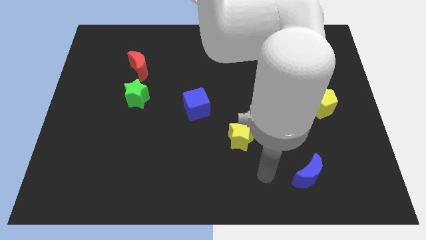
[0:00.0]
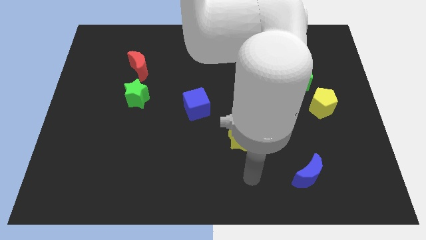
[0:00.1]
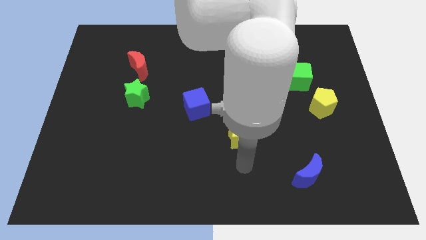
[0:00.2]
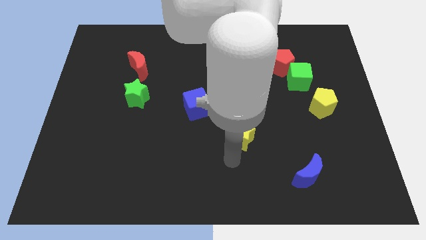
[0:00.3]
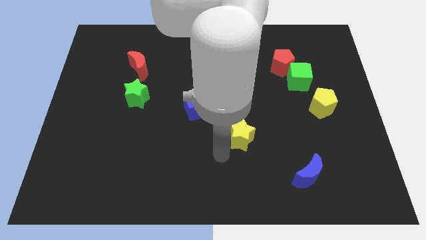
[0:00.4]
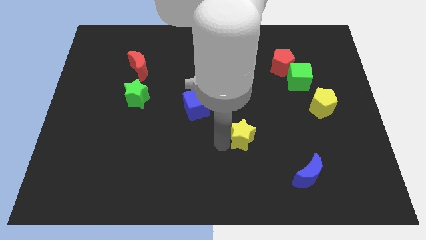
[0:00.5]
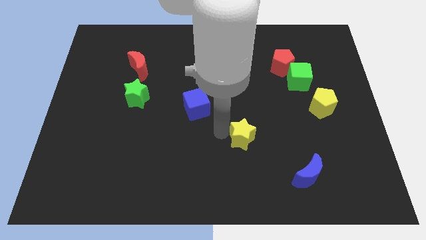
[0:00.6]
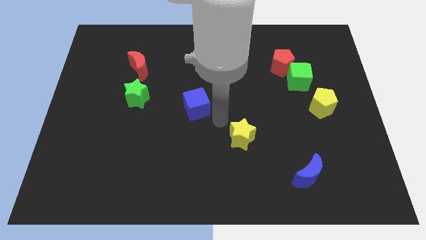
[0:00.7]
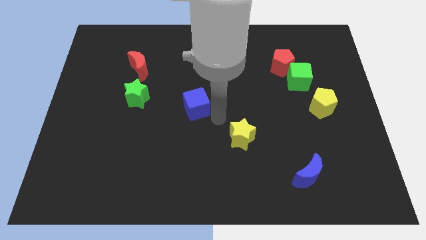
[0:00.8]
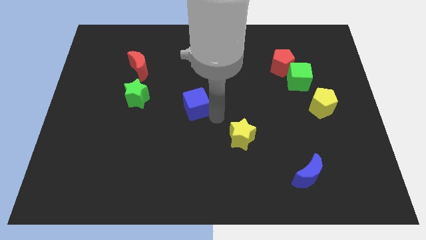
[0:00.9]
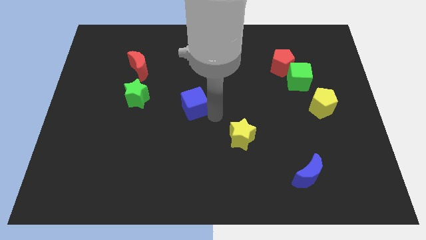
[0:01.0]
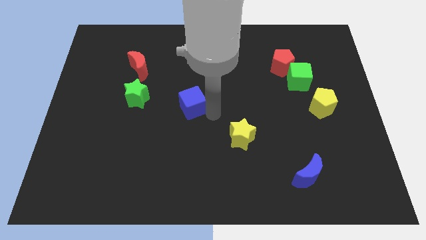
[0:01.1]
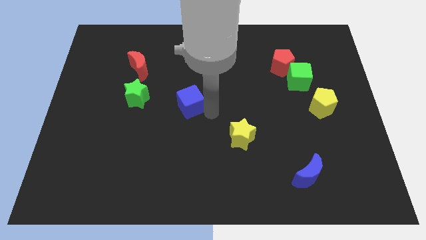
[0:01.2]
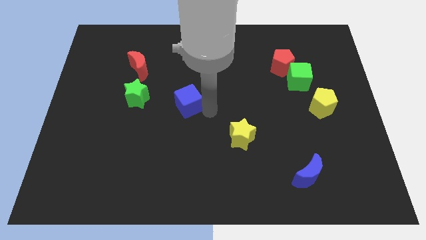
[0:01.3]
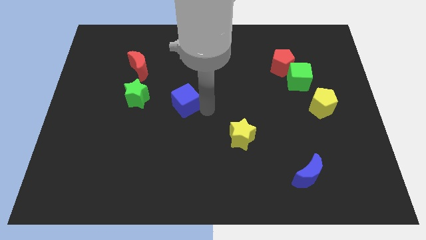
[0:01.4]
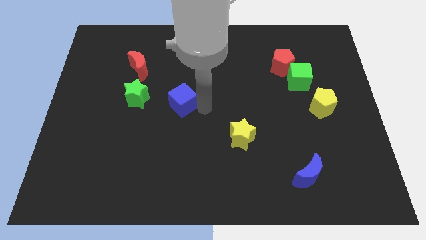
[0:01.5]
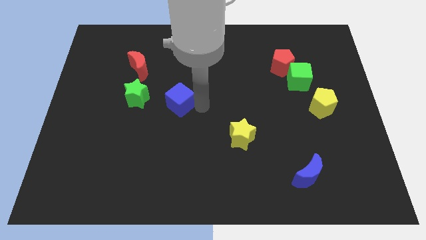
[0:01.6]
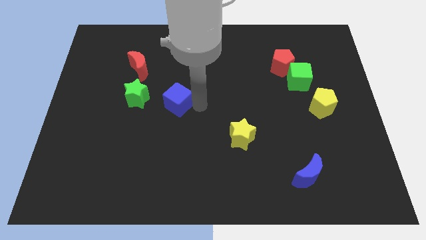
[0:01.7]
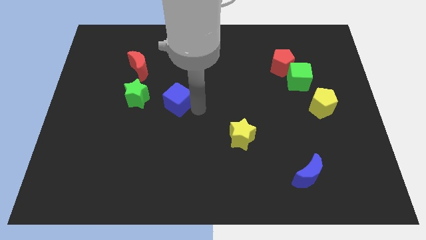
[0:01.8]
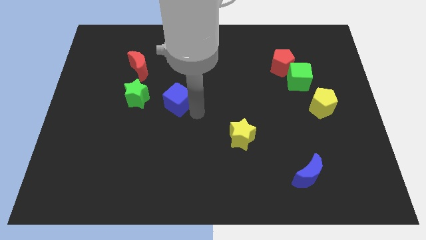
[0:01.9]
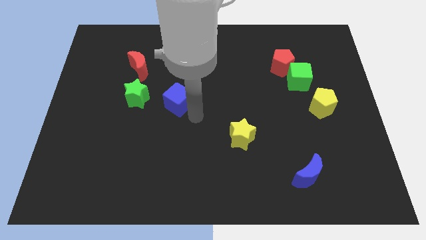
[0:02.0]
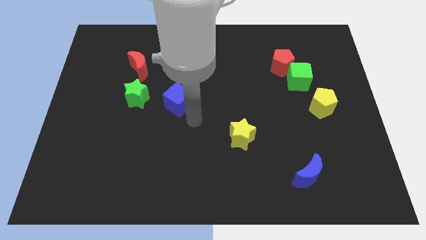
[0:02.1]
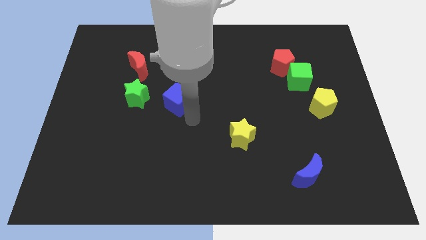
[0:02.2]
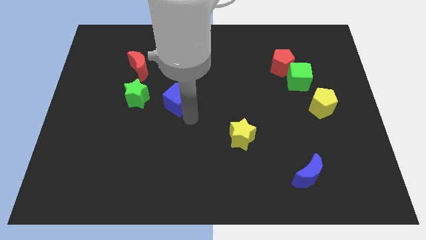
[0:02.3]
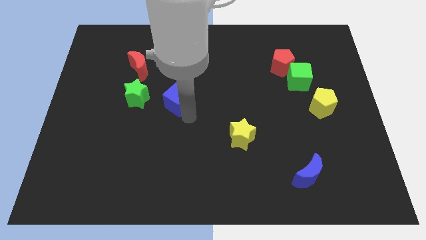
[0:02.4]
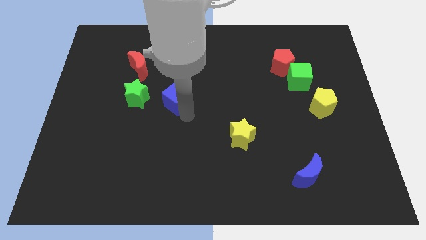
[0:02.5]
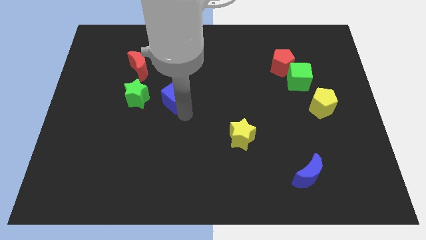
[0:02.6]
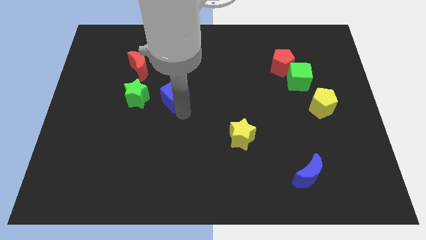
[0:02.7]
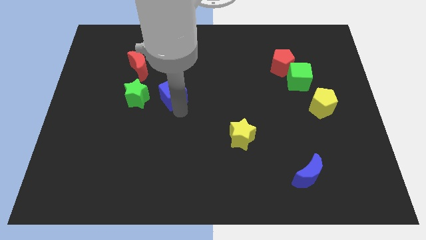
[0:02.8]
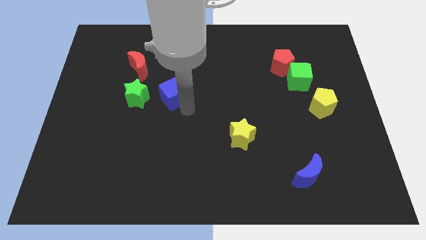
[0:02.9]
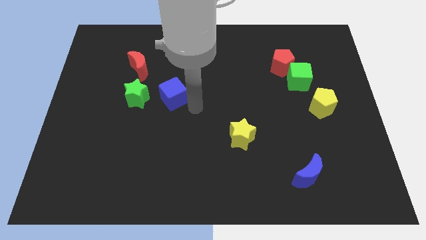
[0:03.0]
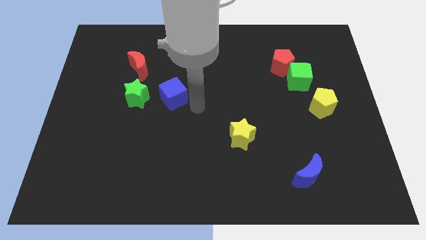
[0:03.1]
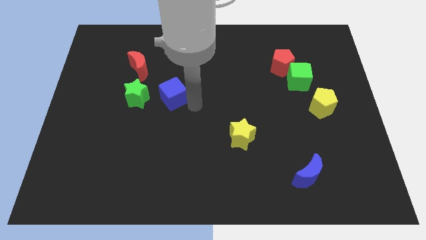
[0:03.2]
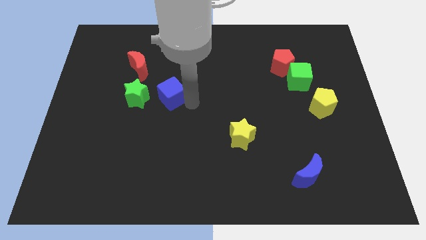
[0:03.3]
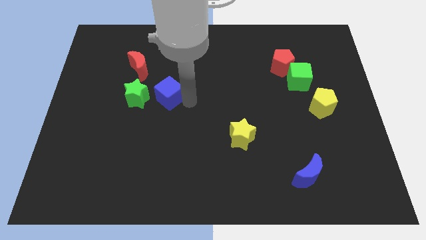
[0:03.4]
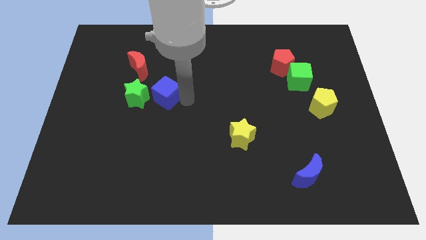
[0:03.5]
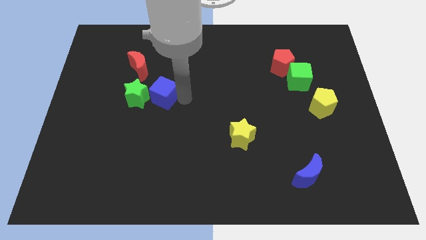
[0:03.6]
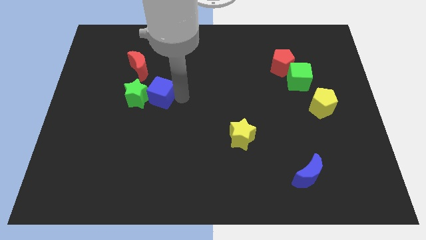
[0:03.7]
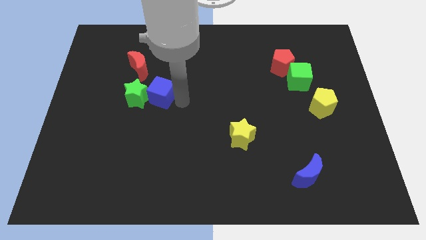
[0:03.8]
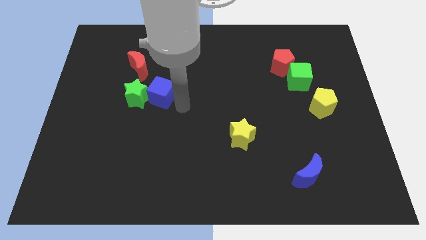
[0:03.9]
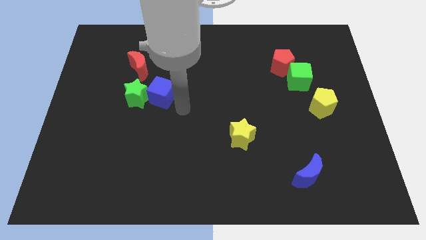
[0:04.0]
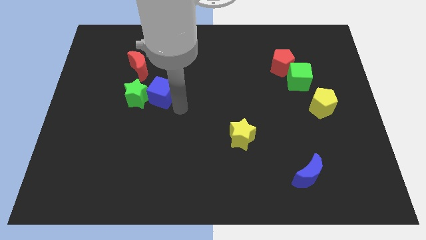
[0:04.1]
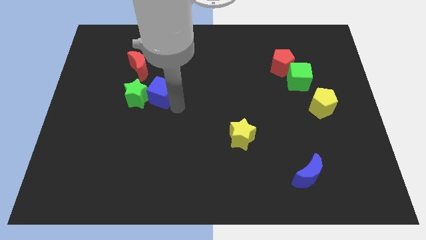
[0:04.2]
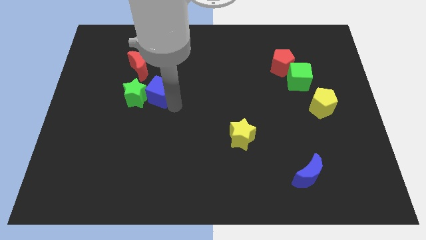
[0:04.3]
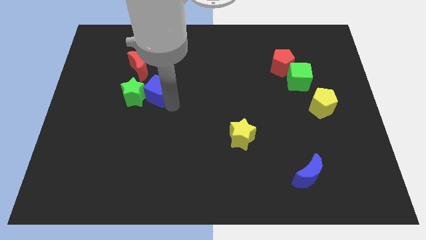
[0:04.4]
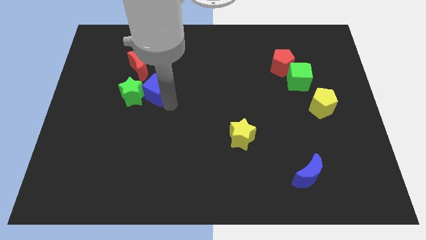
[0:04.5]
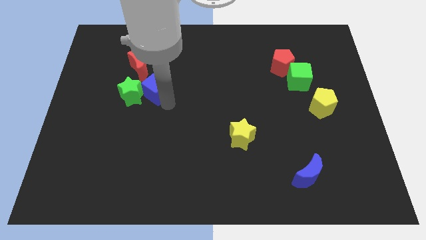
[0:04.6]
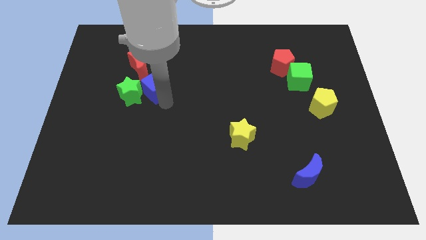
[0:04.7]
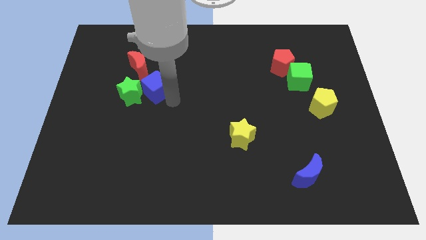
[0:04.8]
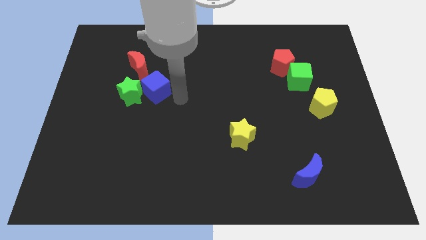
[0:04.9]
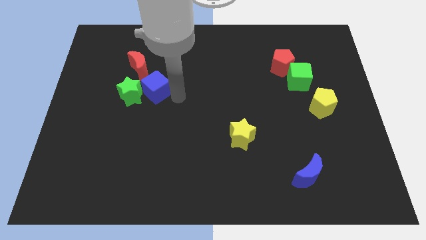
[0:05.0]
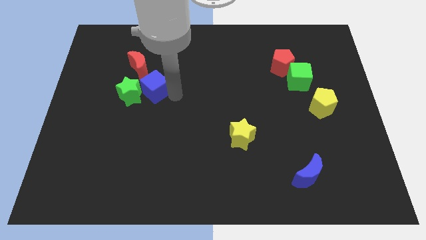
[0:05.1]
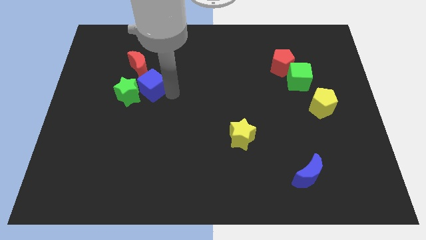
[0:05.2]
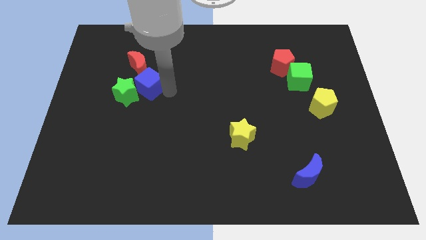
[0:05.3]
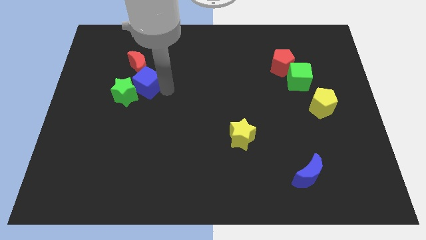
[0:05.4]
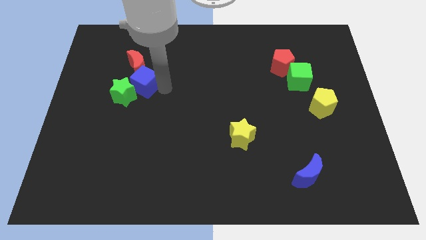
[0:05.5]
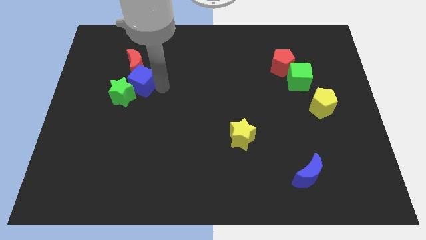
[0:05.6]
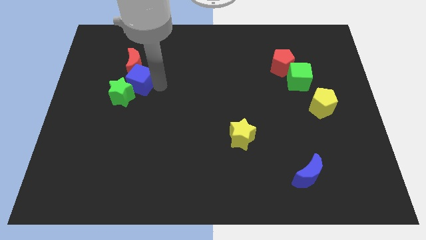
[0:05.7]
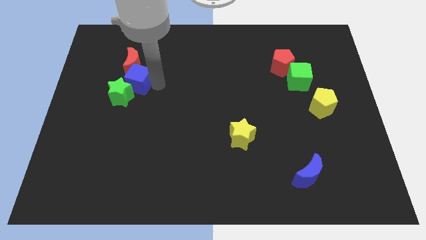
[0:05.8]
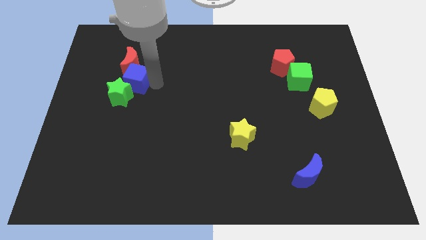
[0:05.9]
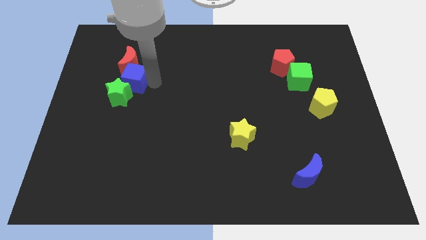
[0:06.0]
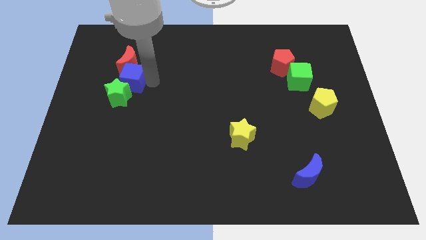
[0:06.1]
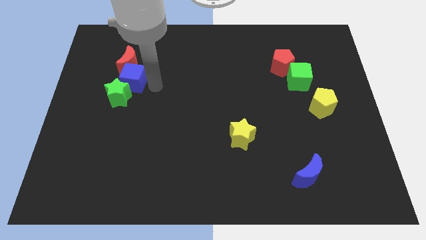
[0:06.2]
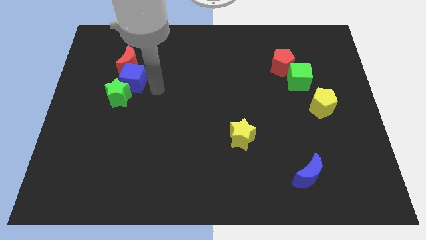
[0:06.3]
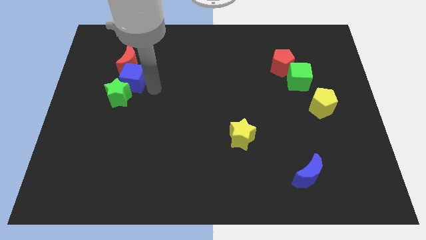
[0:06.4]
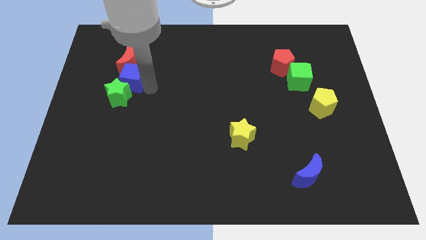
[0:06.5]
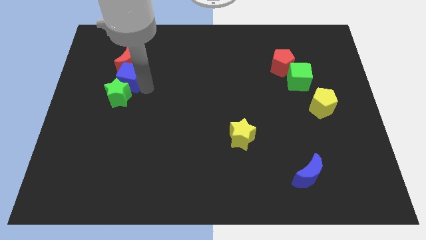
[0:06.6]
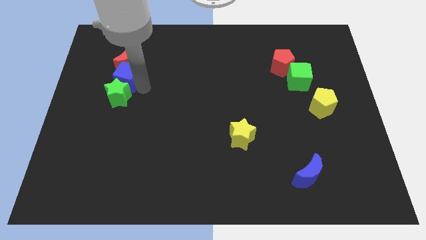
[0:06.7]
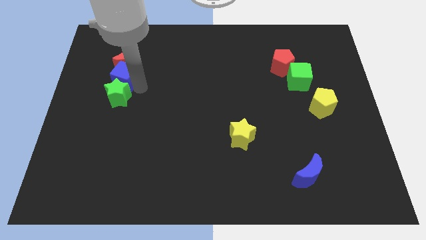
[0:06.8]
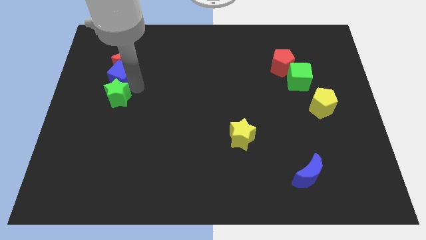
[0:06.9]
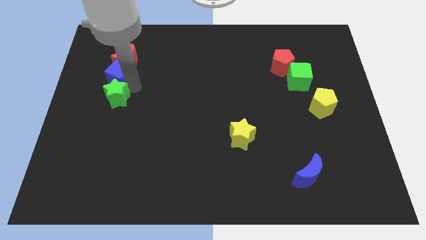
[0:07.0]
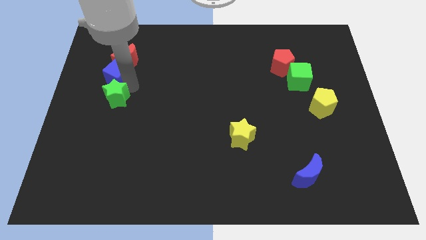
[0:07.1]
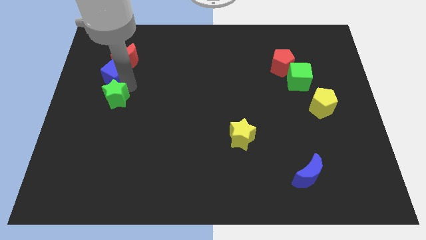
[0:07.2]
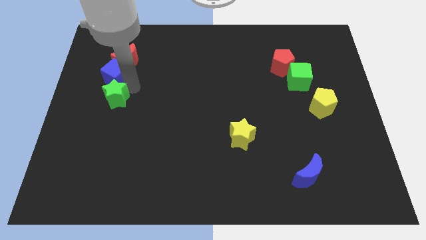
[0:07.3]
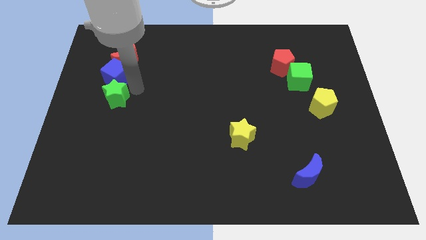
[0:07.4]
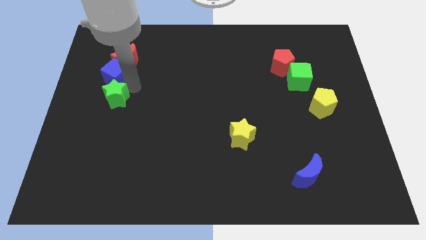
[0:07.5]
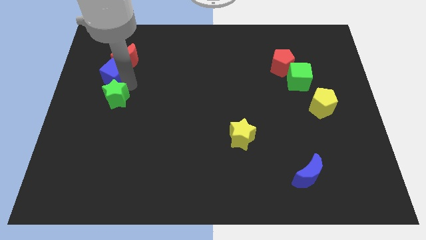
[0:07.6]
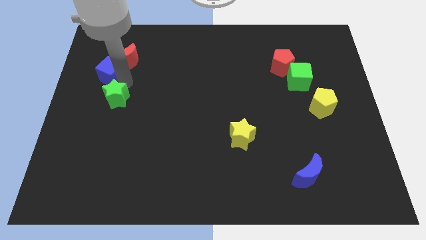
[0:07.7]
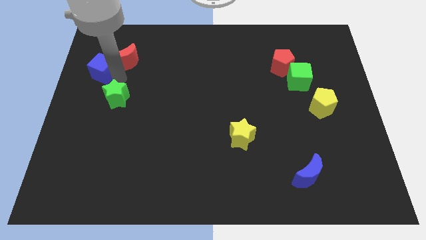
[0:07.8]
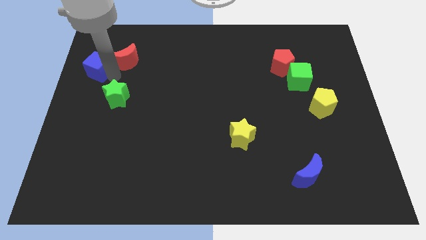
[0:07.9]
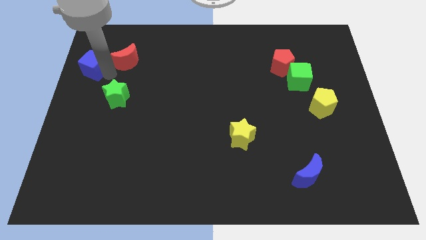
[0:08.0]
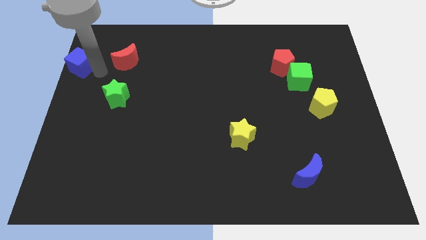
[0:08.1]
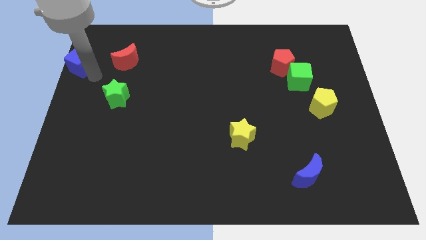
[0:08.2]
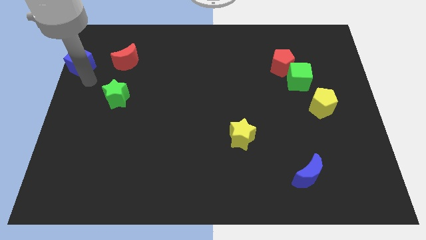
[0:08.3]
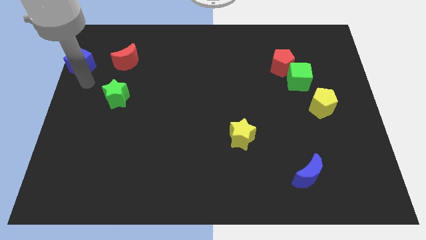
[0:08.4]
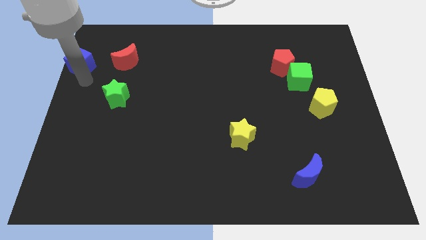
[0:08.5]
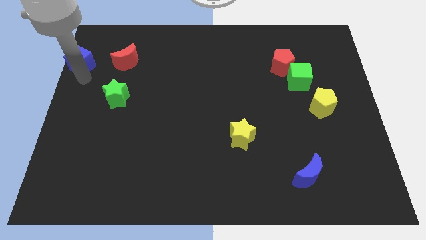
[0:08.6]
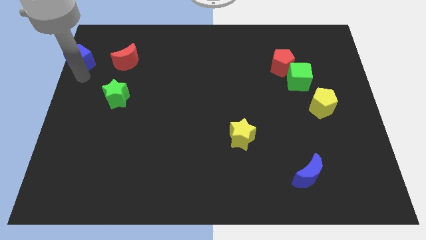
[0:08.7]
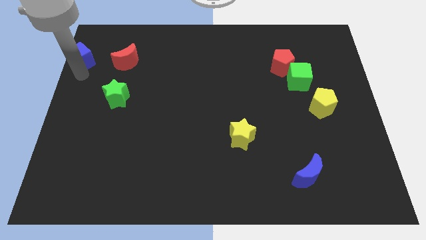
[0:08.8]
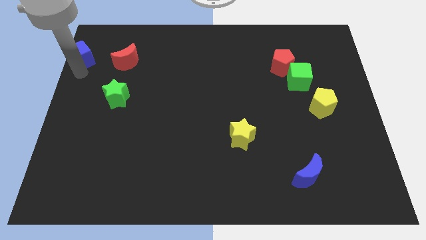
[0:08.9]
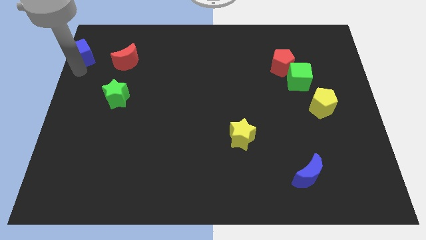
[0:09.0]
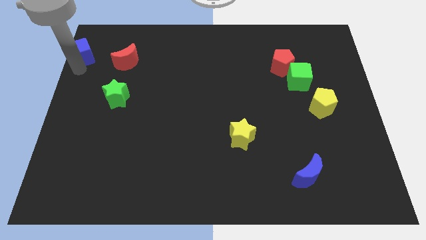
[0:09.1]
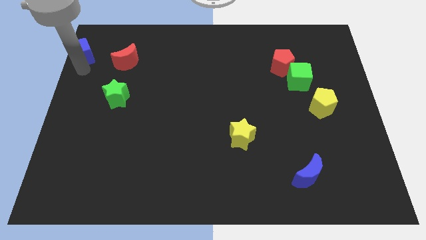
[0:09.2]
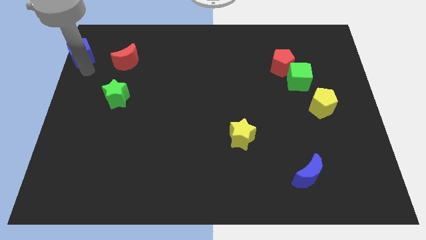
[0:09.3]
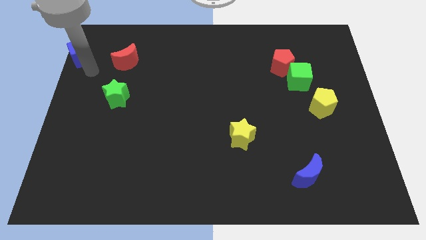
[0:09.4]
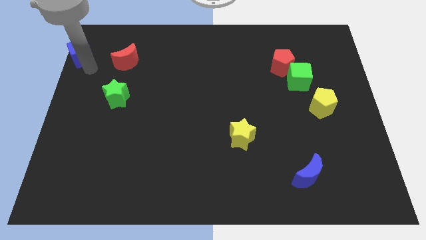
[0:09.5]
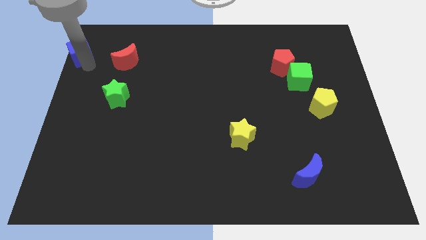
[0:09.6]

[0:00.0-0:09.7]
put the blue cube to the top left
